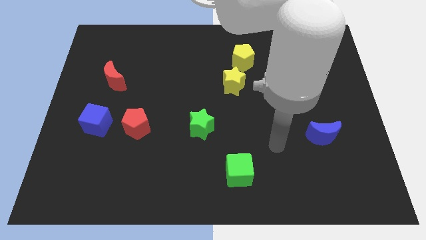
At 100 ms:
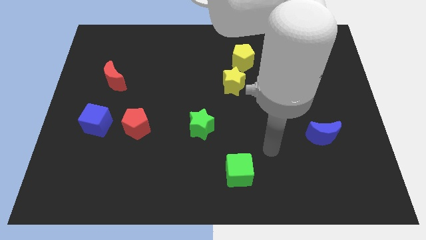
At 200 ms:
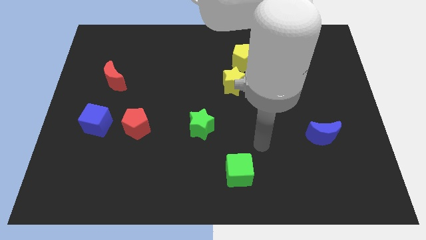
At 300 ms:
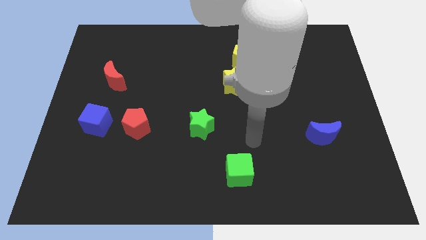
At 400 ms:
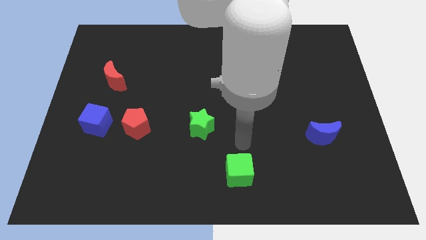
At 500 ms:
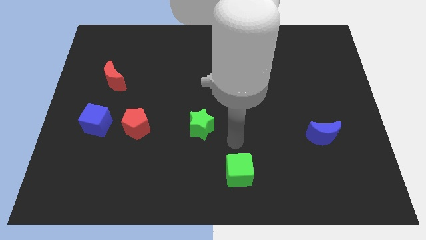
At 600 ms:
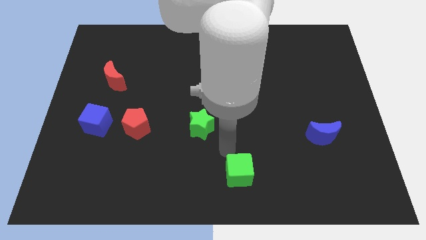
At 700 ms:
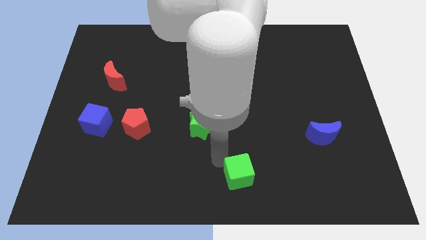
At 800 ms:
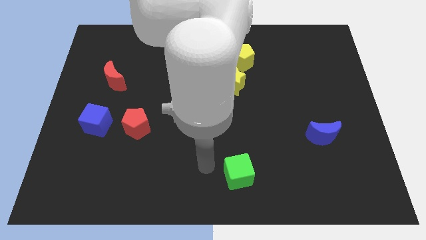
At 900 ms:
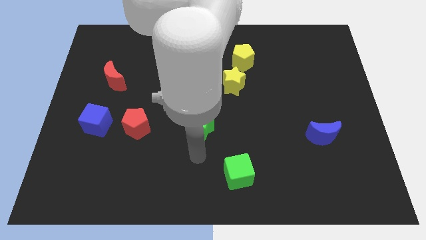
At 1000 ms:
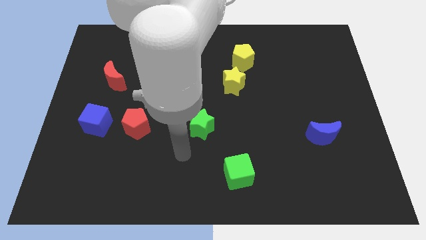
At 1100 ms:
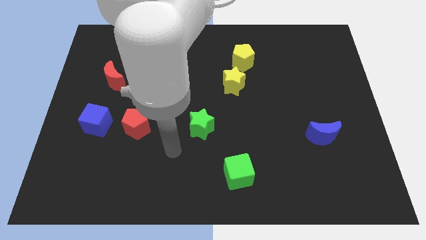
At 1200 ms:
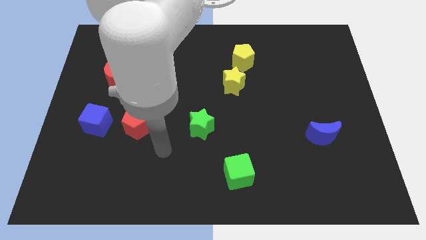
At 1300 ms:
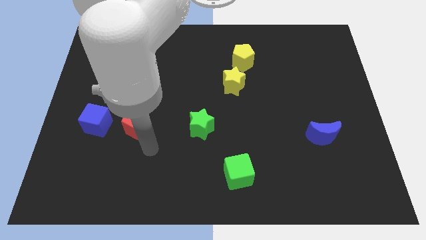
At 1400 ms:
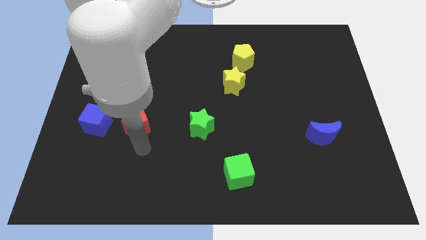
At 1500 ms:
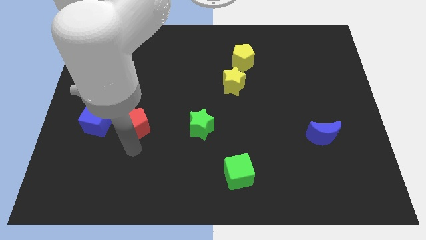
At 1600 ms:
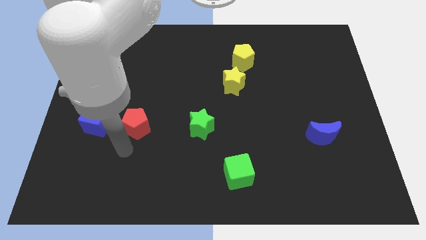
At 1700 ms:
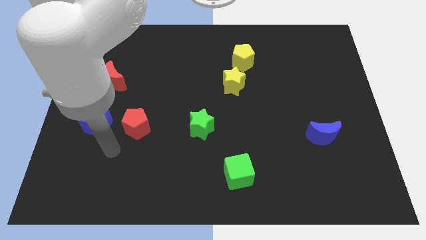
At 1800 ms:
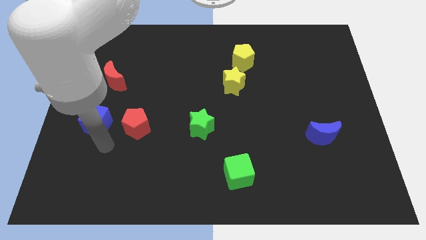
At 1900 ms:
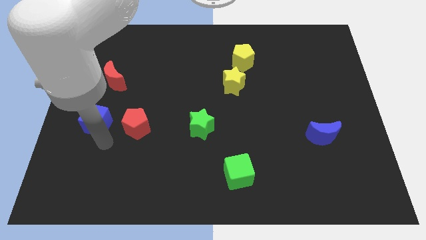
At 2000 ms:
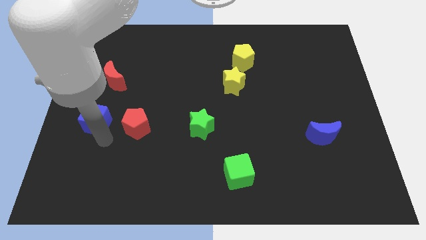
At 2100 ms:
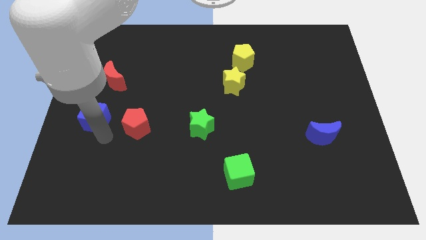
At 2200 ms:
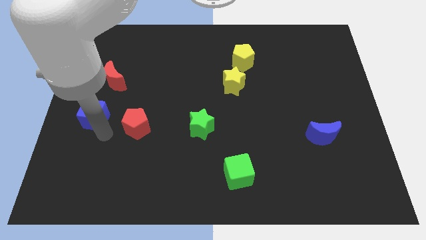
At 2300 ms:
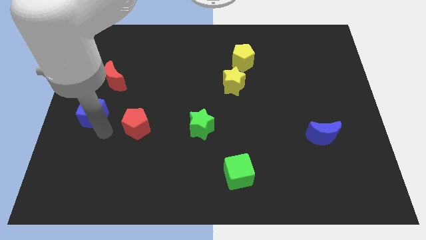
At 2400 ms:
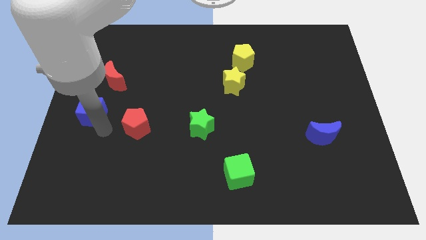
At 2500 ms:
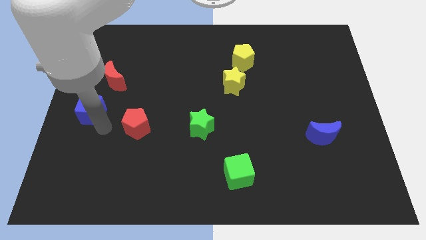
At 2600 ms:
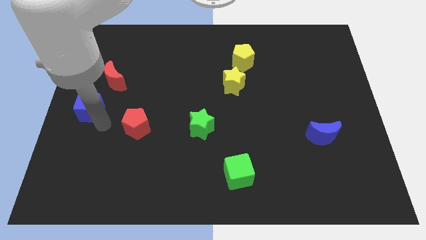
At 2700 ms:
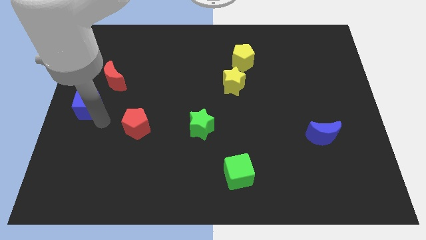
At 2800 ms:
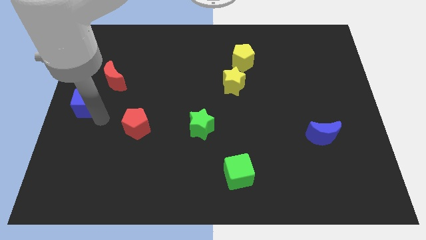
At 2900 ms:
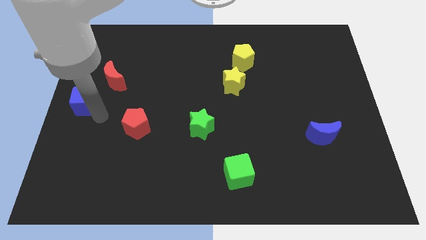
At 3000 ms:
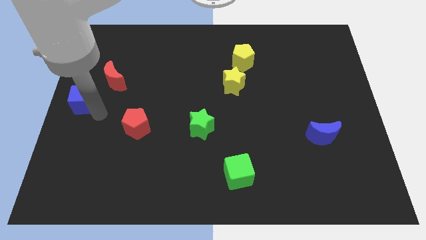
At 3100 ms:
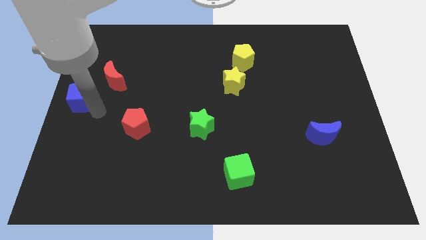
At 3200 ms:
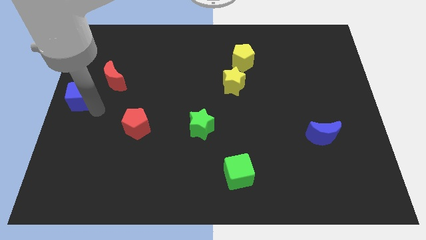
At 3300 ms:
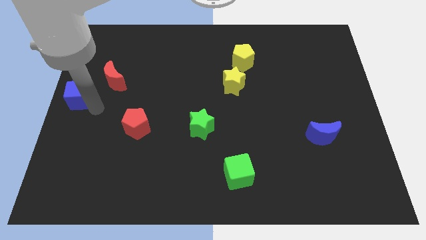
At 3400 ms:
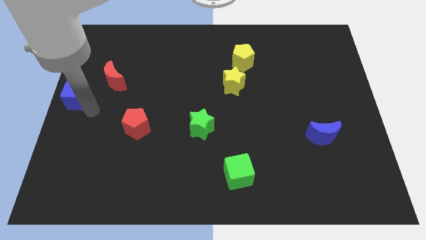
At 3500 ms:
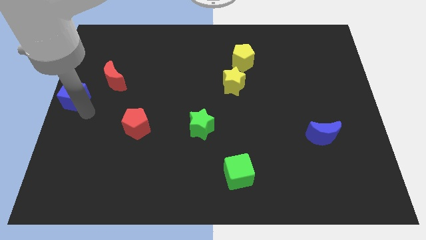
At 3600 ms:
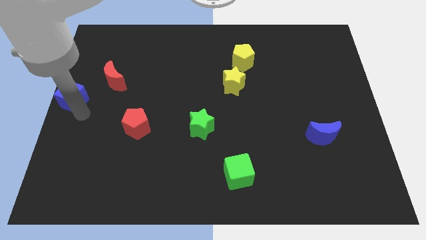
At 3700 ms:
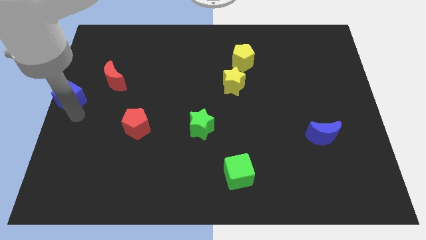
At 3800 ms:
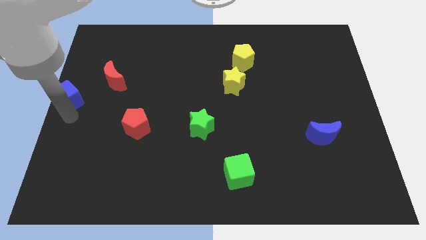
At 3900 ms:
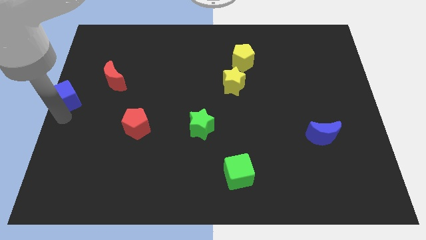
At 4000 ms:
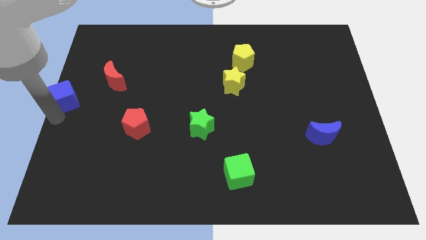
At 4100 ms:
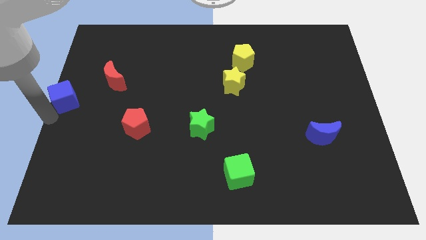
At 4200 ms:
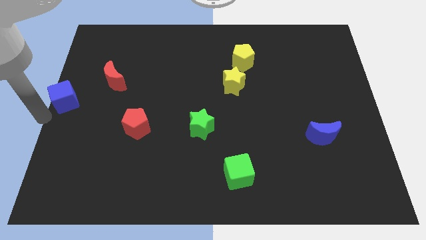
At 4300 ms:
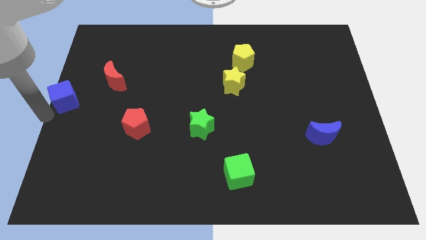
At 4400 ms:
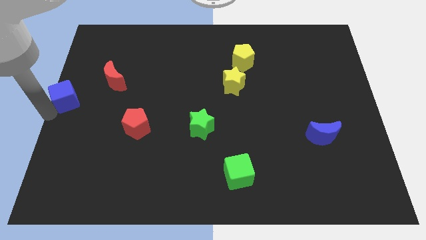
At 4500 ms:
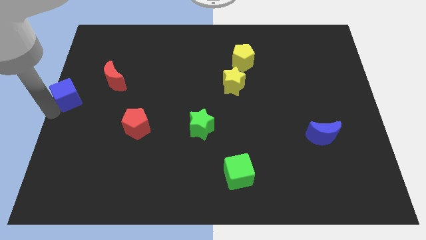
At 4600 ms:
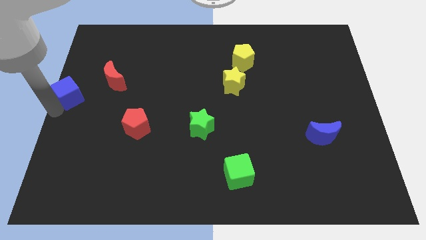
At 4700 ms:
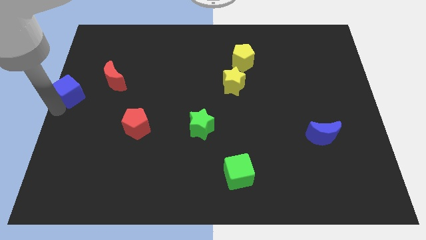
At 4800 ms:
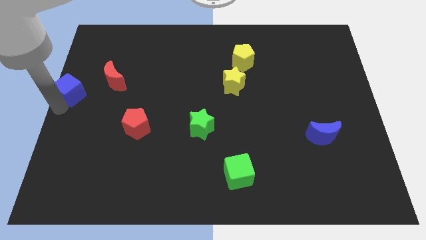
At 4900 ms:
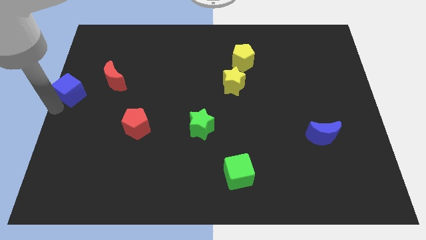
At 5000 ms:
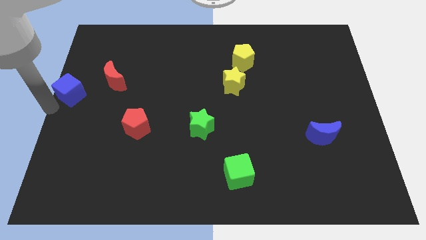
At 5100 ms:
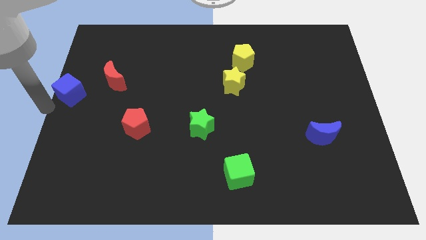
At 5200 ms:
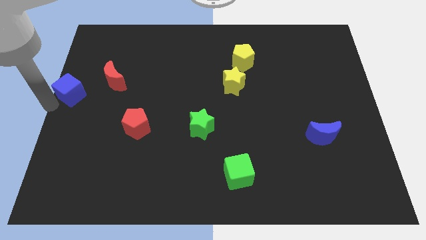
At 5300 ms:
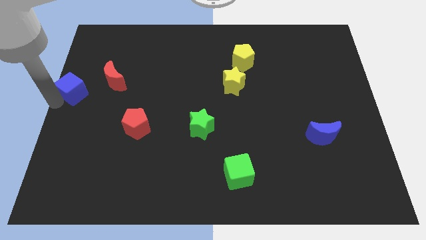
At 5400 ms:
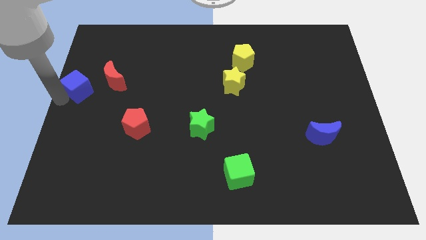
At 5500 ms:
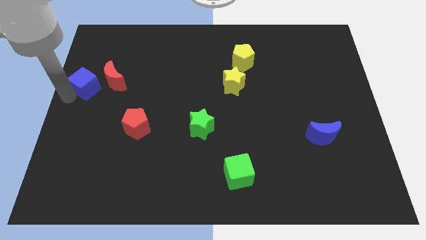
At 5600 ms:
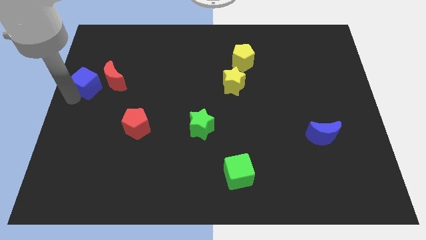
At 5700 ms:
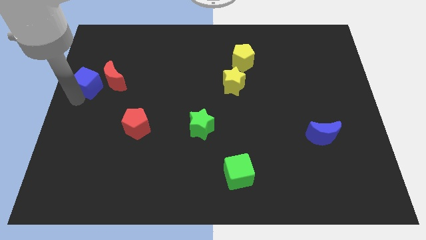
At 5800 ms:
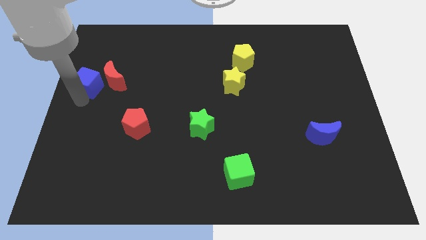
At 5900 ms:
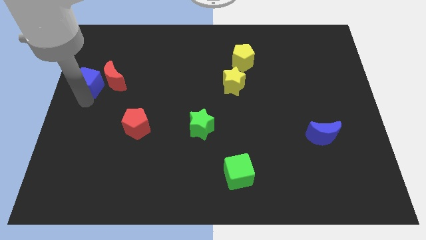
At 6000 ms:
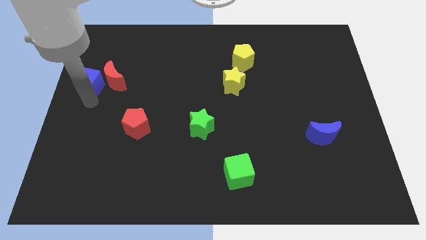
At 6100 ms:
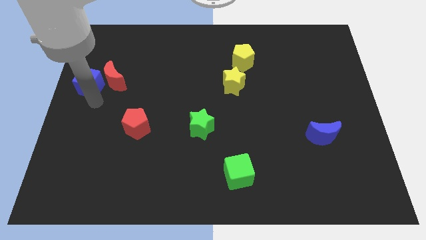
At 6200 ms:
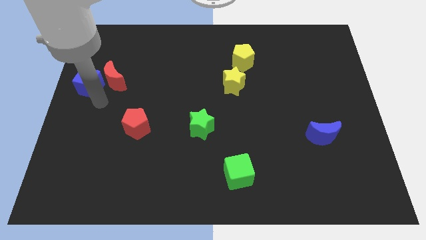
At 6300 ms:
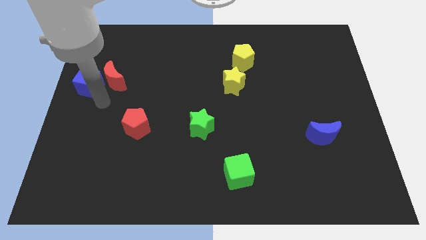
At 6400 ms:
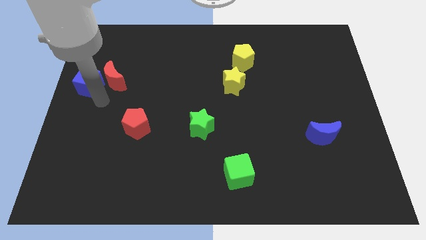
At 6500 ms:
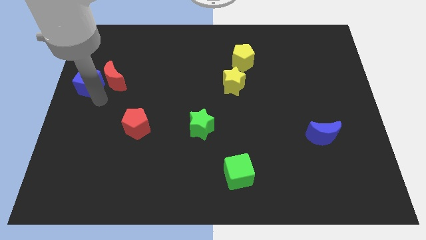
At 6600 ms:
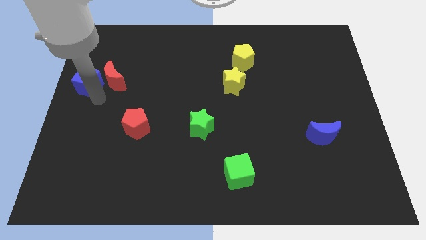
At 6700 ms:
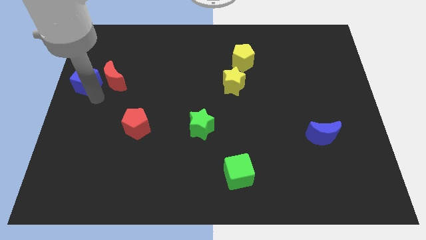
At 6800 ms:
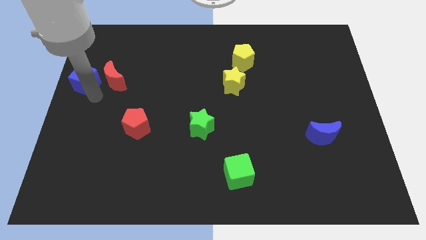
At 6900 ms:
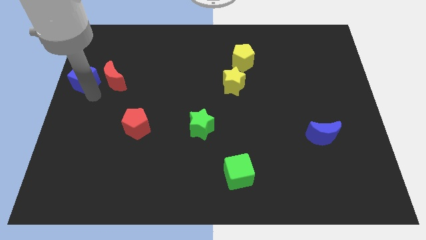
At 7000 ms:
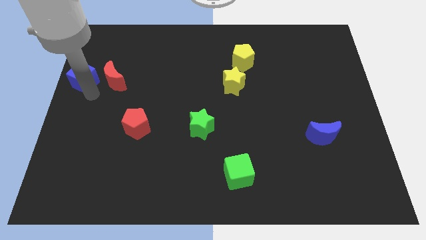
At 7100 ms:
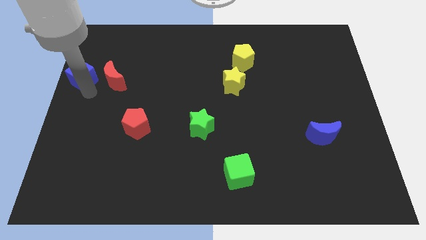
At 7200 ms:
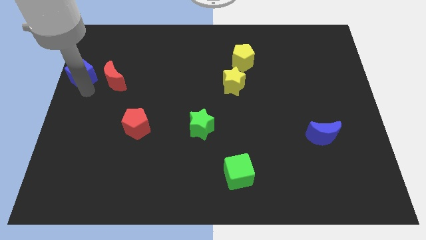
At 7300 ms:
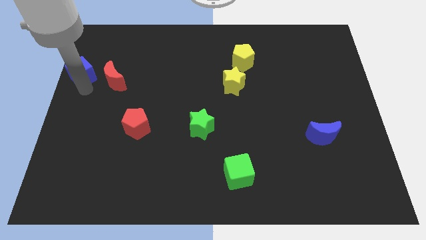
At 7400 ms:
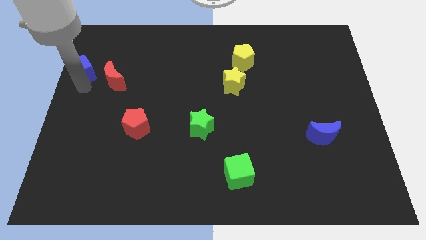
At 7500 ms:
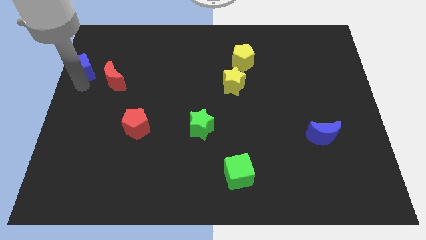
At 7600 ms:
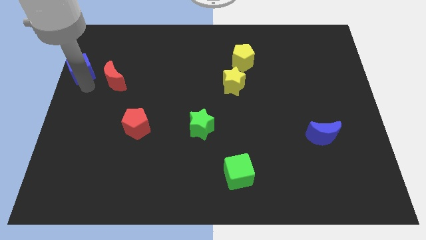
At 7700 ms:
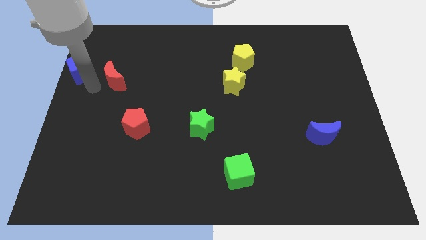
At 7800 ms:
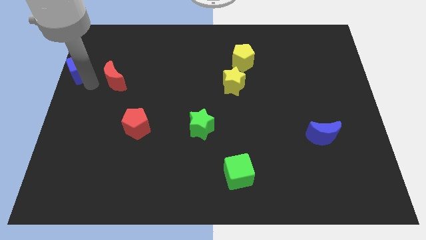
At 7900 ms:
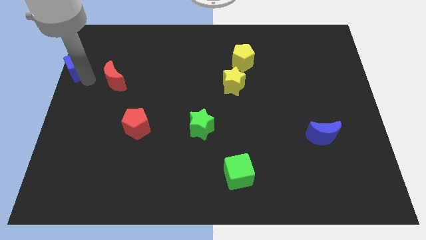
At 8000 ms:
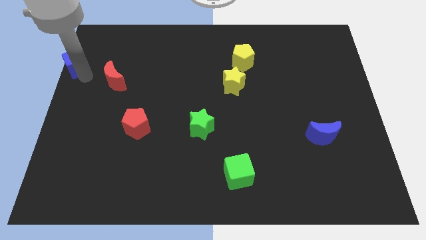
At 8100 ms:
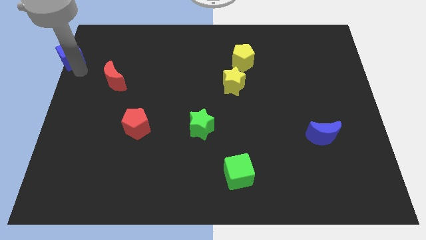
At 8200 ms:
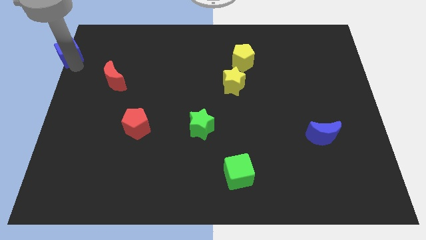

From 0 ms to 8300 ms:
slide the blue cube to the top left
